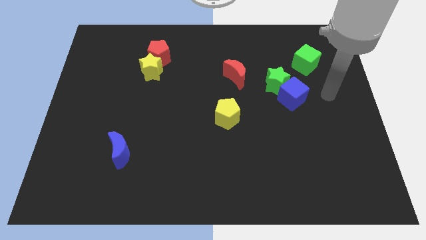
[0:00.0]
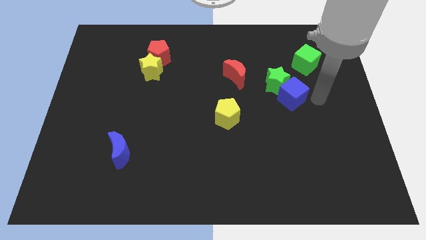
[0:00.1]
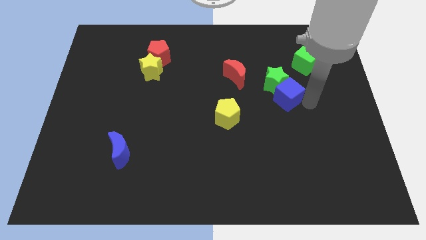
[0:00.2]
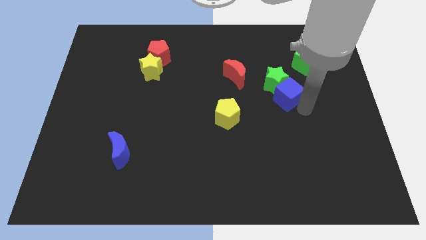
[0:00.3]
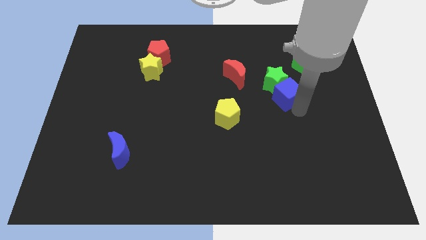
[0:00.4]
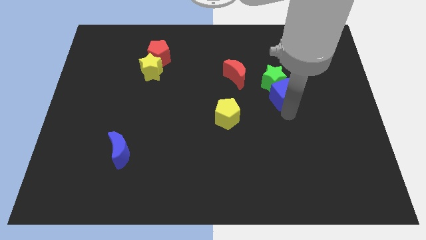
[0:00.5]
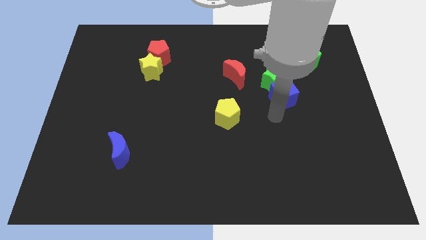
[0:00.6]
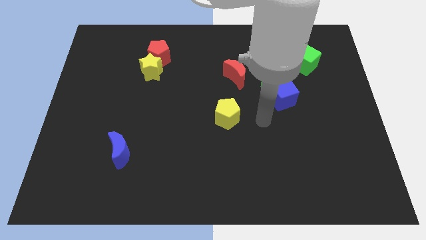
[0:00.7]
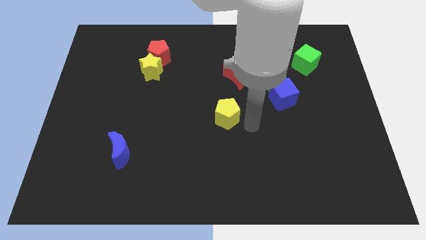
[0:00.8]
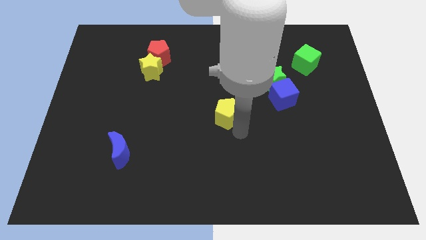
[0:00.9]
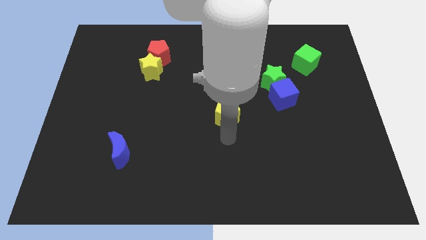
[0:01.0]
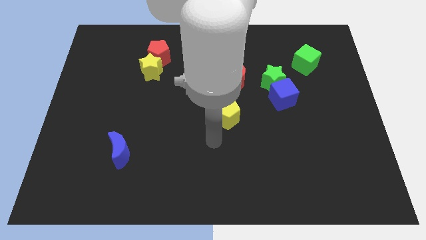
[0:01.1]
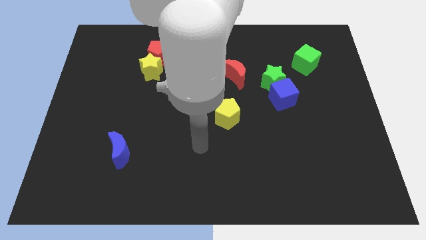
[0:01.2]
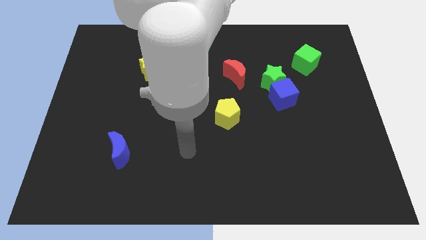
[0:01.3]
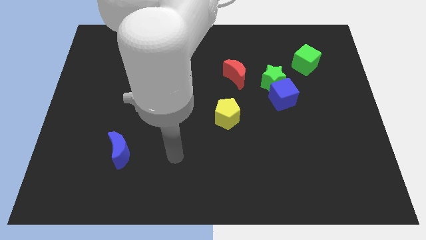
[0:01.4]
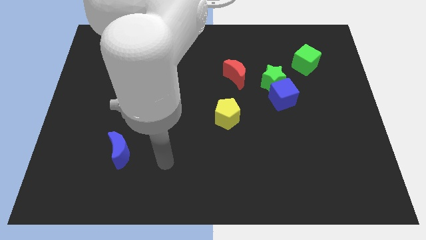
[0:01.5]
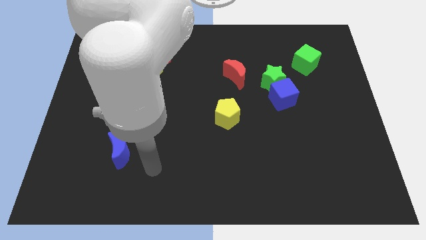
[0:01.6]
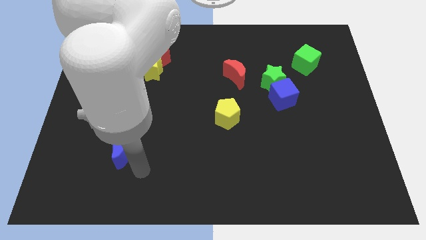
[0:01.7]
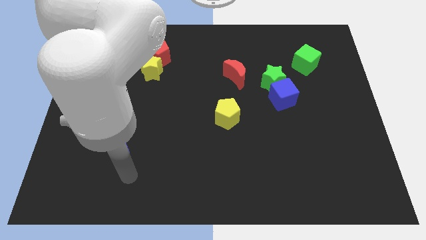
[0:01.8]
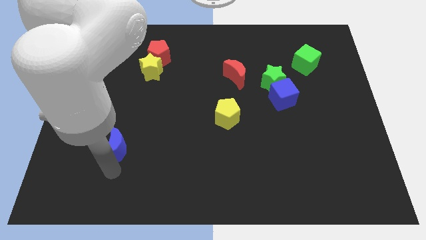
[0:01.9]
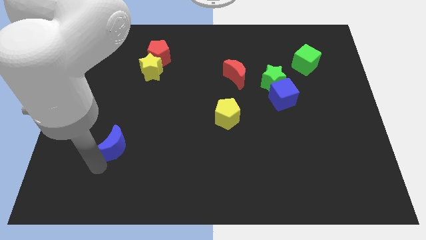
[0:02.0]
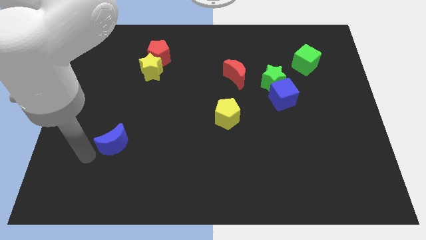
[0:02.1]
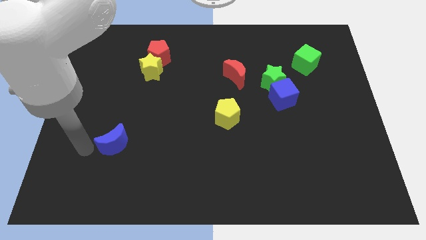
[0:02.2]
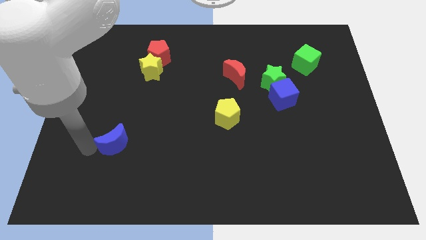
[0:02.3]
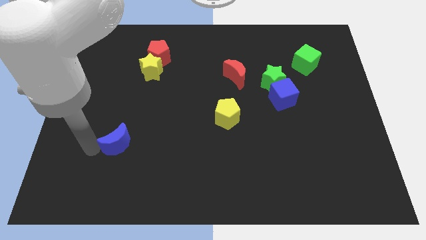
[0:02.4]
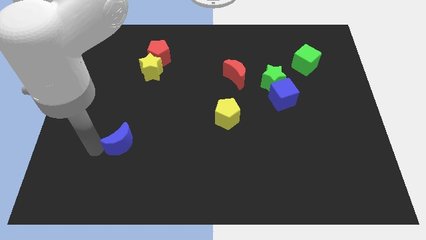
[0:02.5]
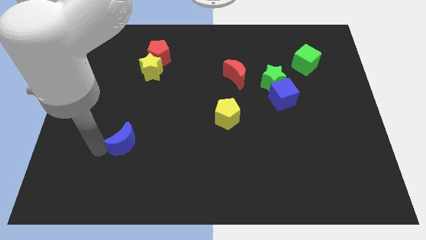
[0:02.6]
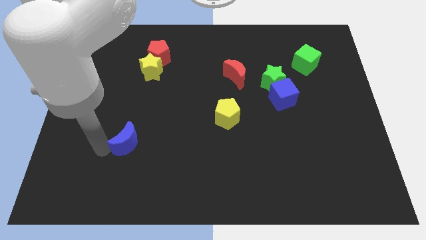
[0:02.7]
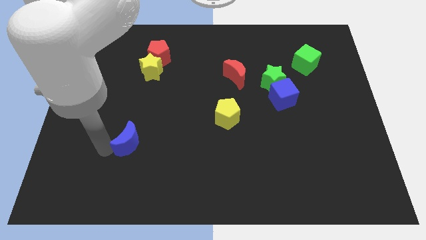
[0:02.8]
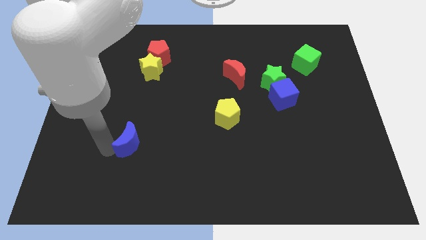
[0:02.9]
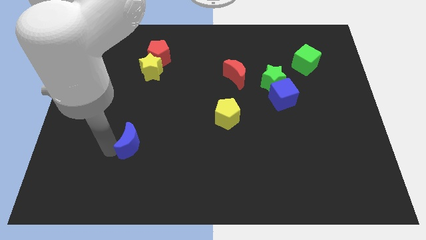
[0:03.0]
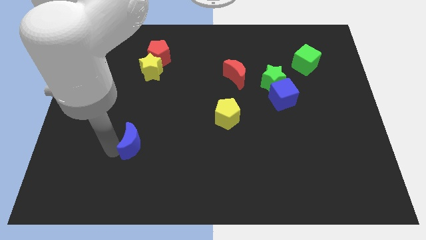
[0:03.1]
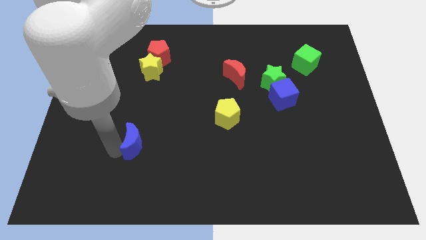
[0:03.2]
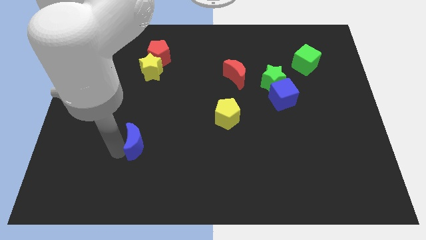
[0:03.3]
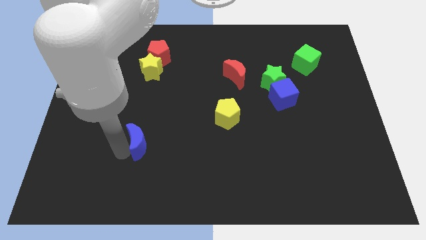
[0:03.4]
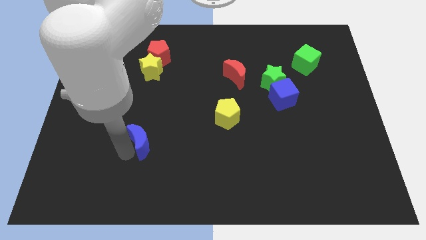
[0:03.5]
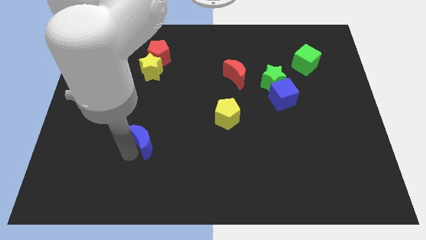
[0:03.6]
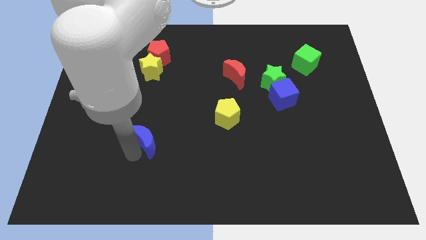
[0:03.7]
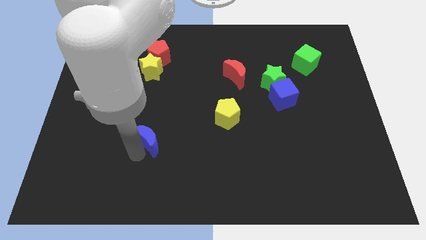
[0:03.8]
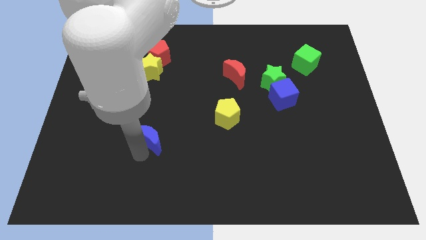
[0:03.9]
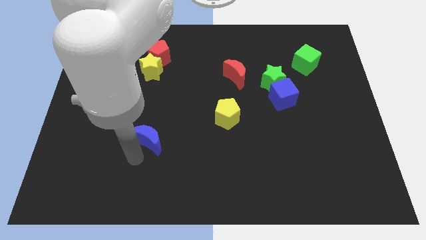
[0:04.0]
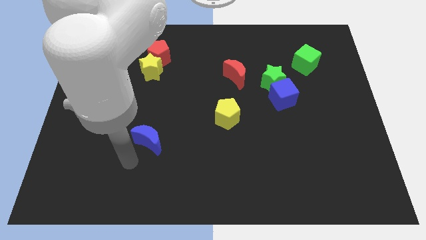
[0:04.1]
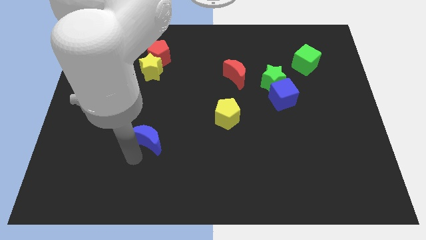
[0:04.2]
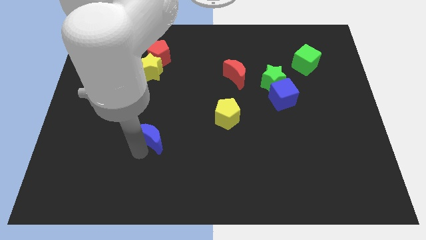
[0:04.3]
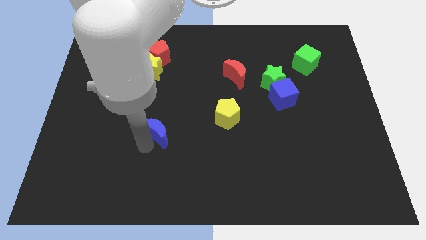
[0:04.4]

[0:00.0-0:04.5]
slide the blue moon upwards and then to the right a little

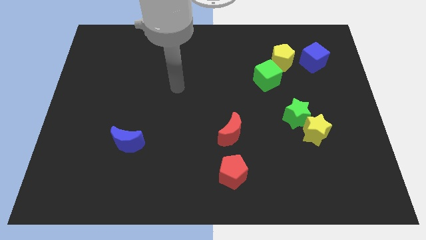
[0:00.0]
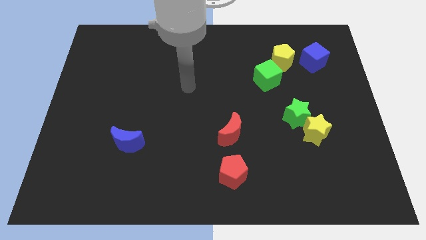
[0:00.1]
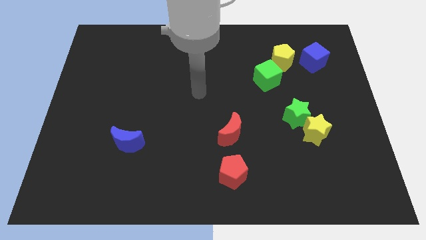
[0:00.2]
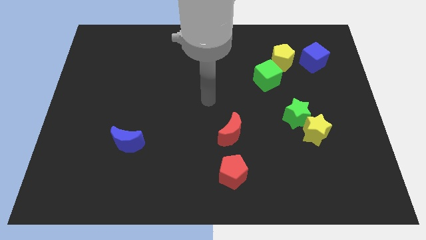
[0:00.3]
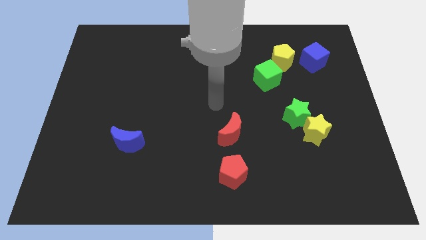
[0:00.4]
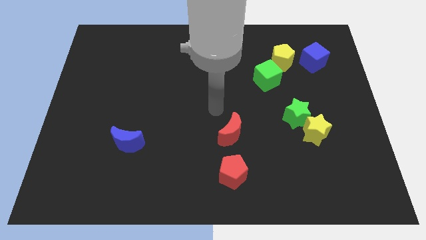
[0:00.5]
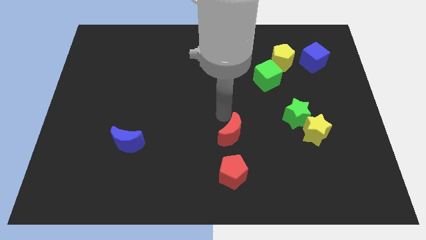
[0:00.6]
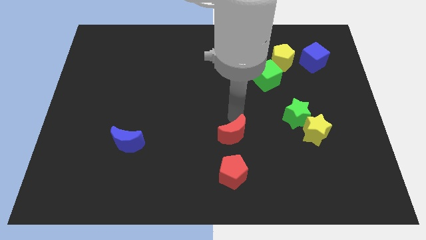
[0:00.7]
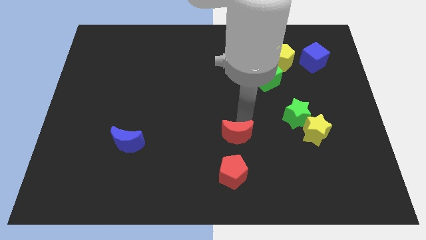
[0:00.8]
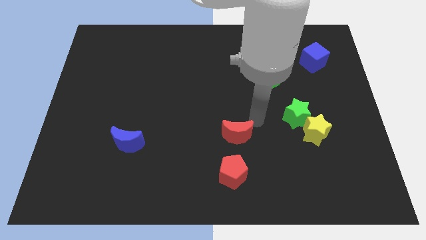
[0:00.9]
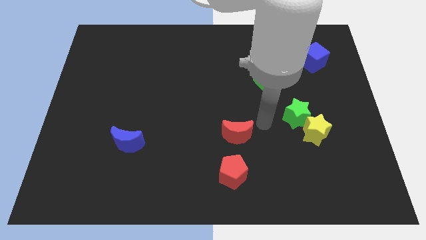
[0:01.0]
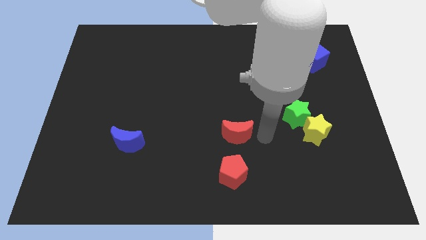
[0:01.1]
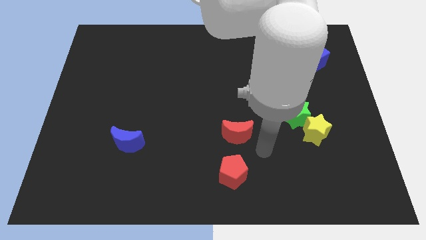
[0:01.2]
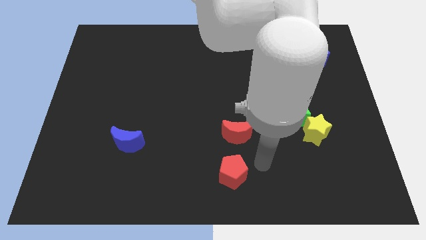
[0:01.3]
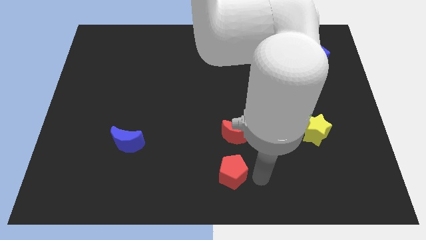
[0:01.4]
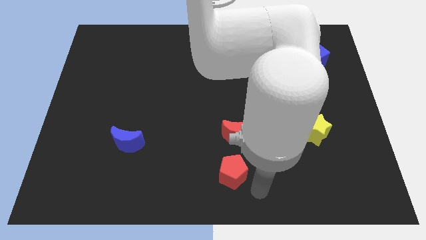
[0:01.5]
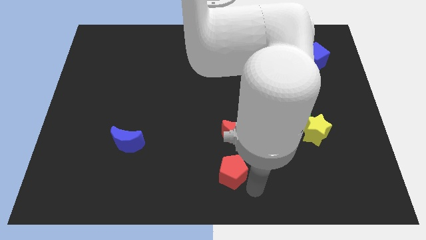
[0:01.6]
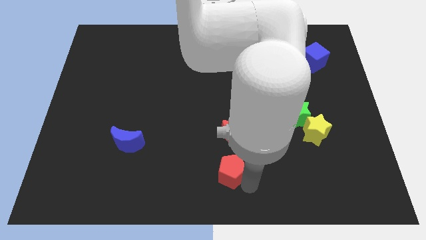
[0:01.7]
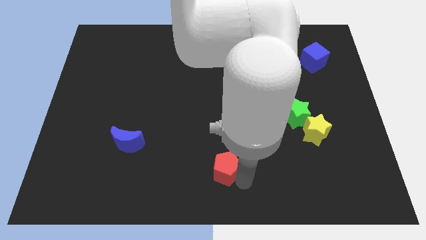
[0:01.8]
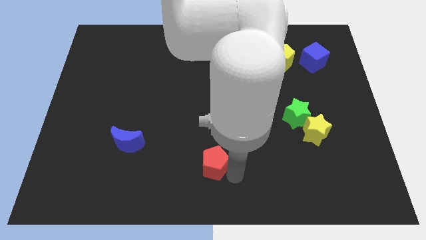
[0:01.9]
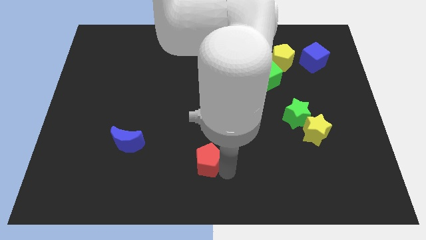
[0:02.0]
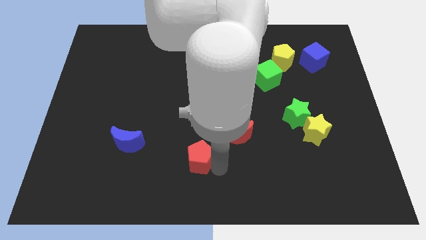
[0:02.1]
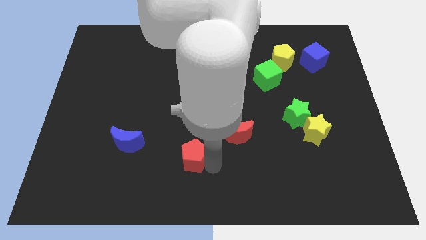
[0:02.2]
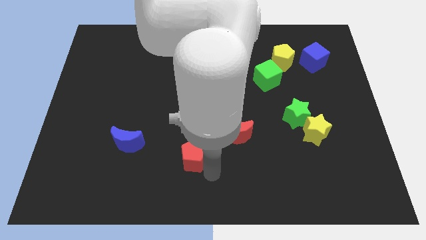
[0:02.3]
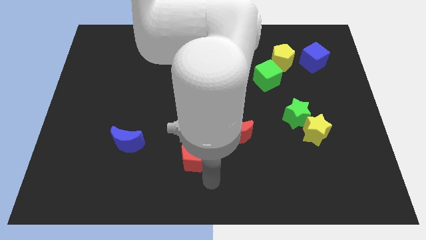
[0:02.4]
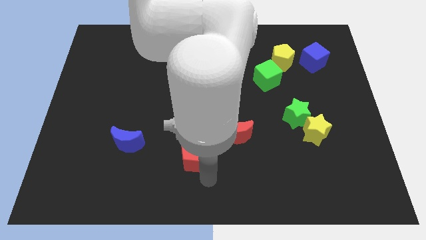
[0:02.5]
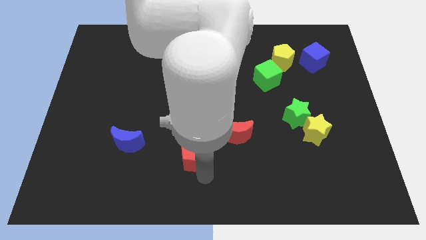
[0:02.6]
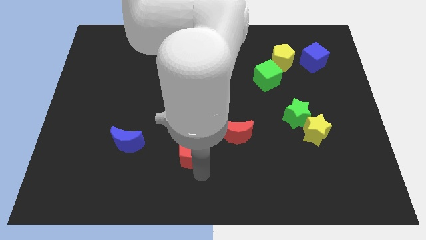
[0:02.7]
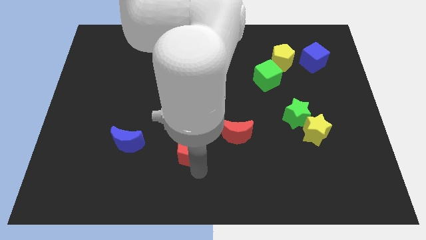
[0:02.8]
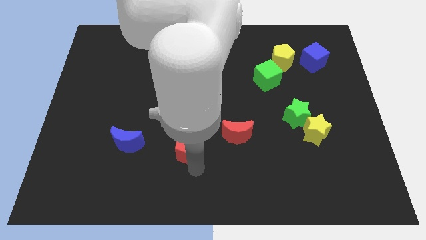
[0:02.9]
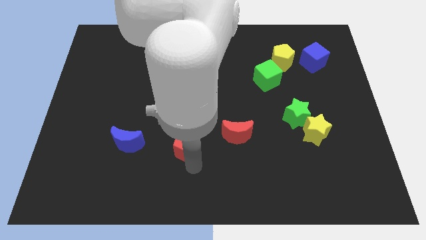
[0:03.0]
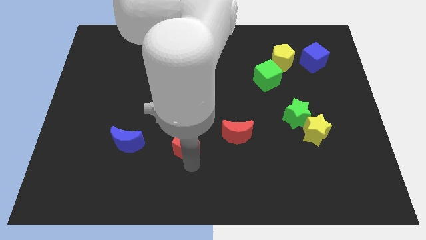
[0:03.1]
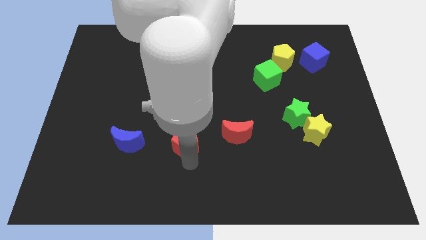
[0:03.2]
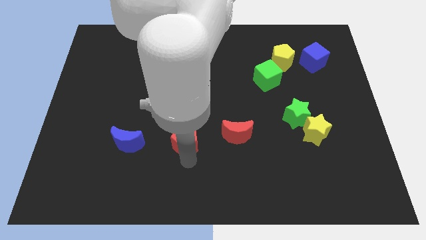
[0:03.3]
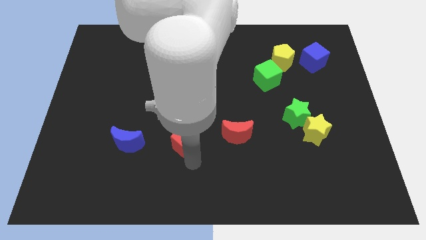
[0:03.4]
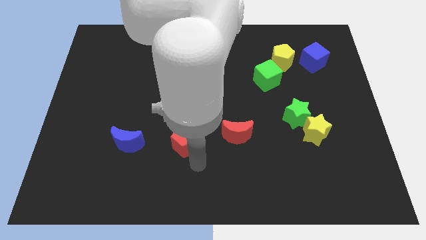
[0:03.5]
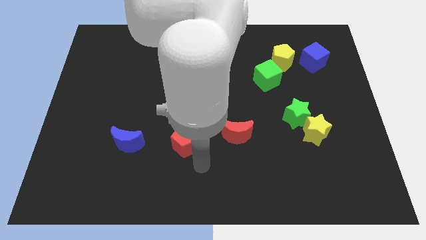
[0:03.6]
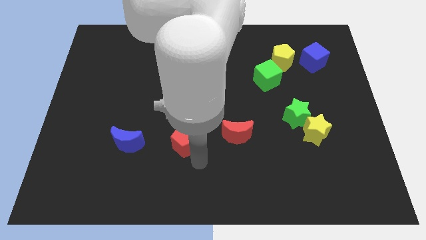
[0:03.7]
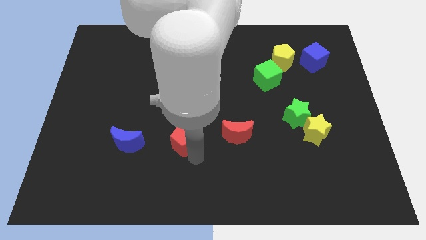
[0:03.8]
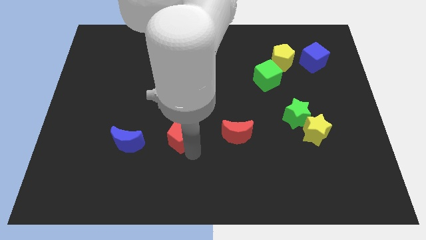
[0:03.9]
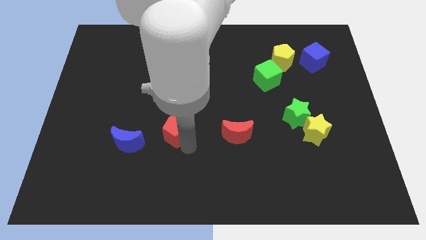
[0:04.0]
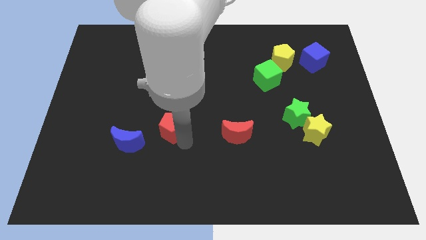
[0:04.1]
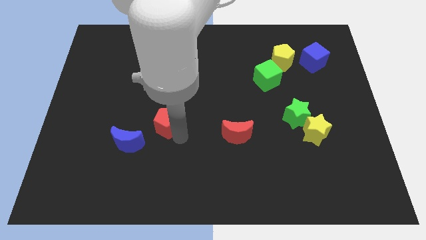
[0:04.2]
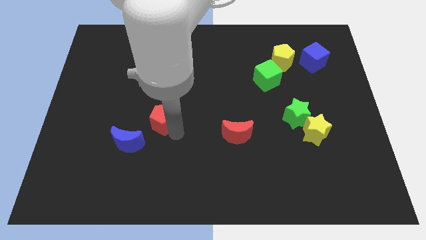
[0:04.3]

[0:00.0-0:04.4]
slide the red pentagon up and left diagonally
